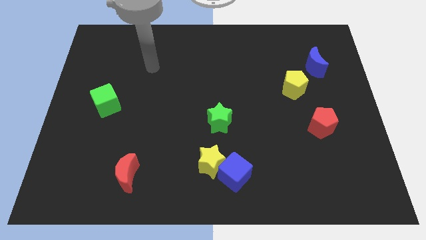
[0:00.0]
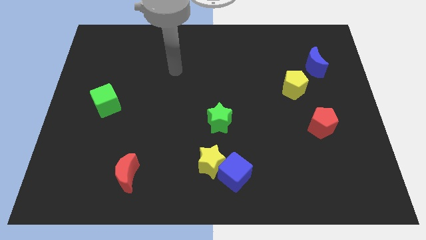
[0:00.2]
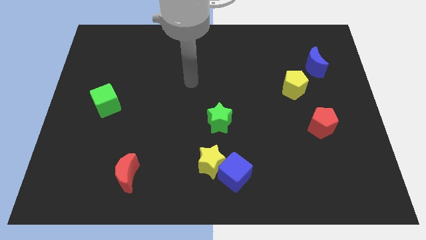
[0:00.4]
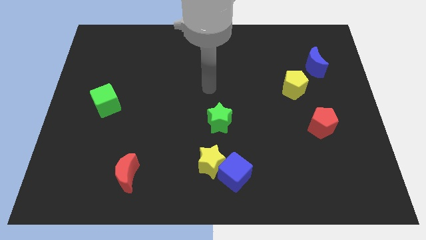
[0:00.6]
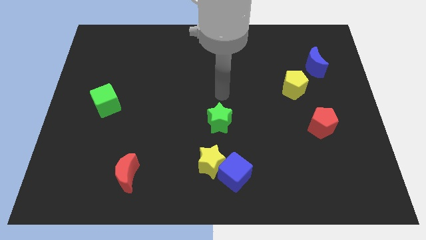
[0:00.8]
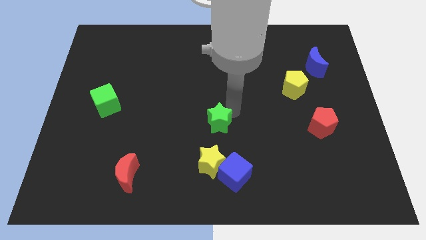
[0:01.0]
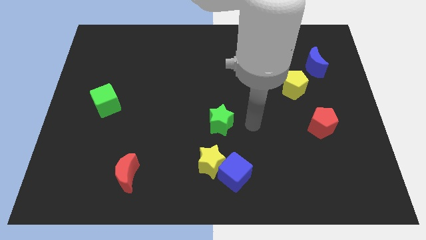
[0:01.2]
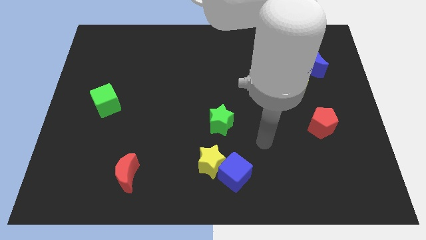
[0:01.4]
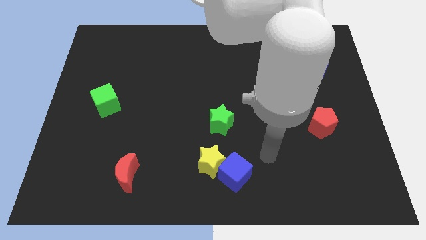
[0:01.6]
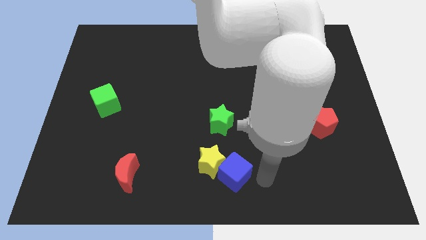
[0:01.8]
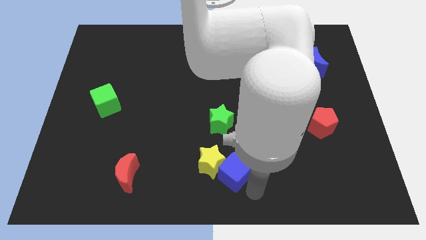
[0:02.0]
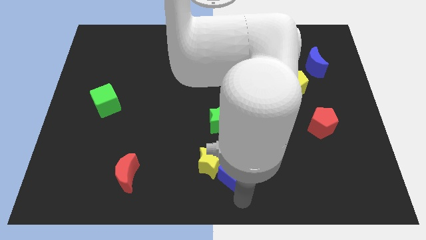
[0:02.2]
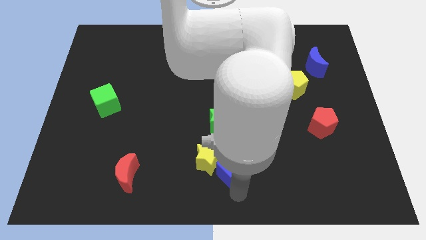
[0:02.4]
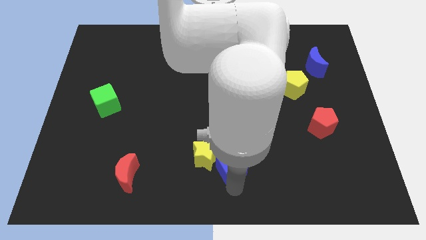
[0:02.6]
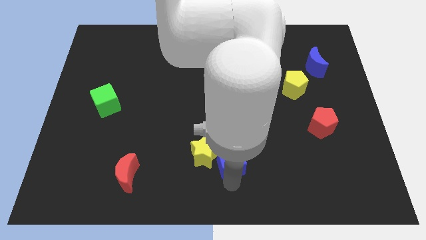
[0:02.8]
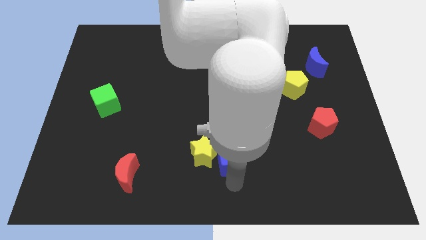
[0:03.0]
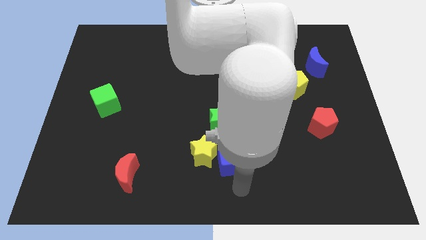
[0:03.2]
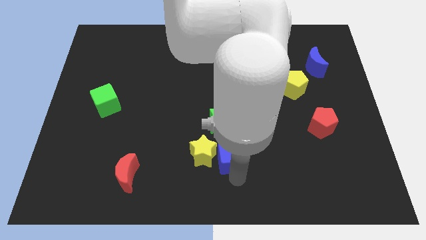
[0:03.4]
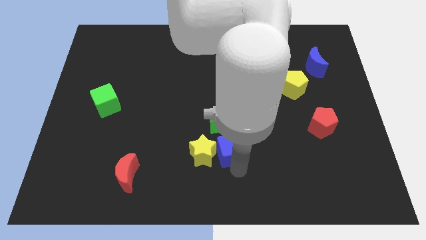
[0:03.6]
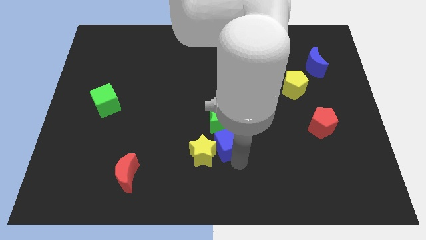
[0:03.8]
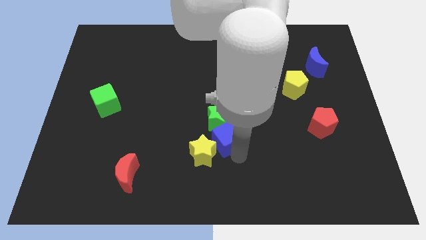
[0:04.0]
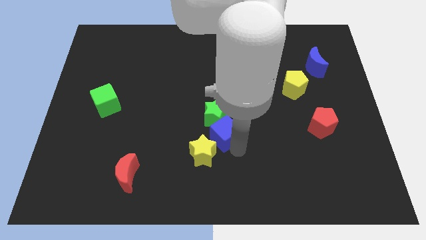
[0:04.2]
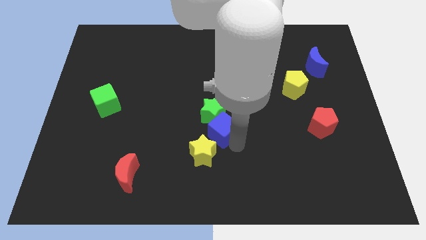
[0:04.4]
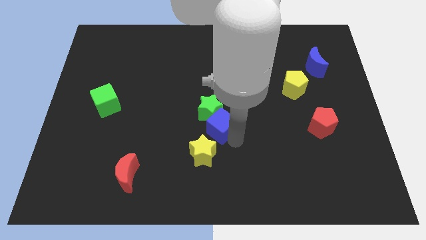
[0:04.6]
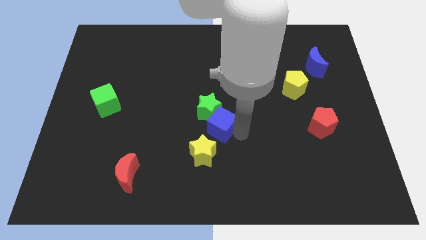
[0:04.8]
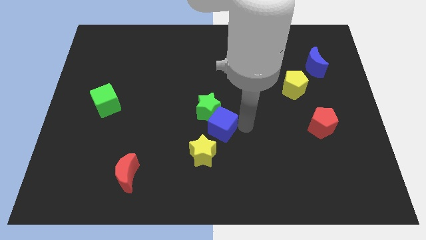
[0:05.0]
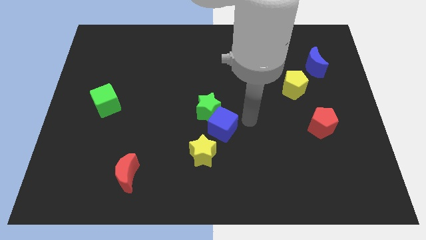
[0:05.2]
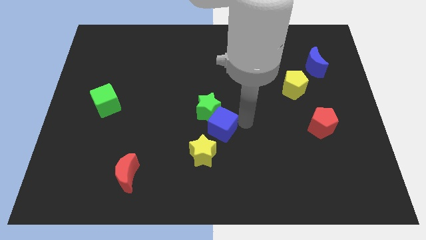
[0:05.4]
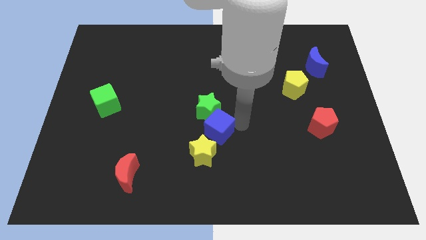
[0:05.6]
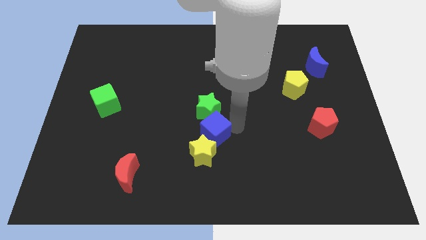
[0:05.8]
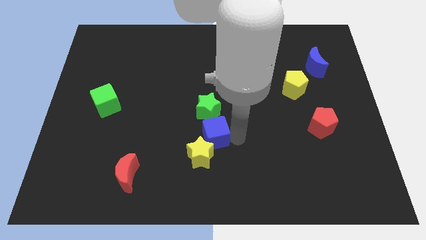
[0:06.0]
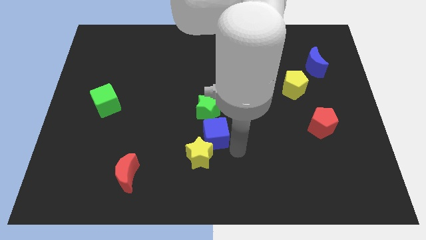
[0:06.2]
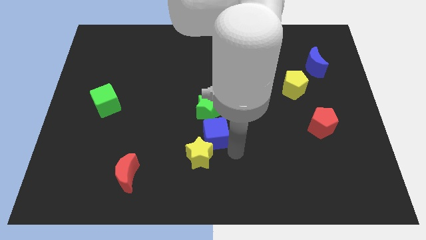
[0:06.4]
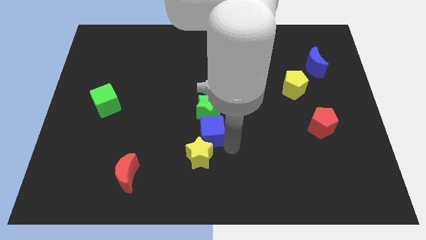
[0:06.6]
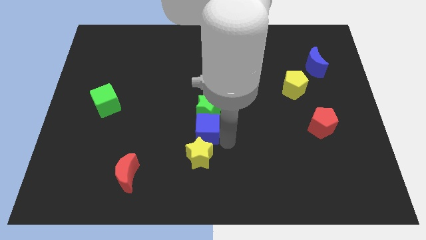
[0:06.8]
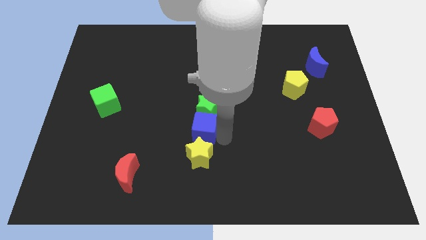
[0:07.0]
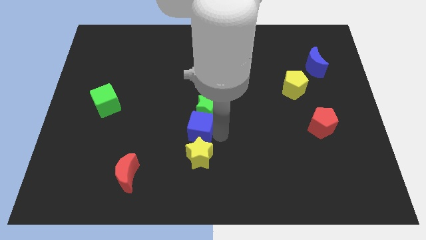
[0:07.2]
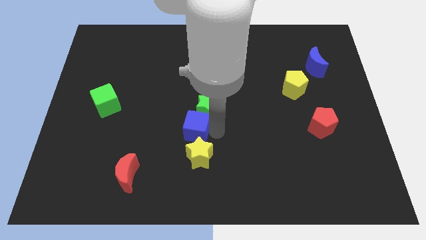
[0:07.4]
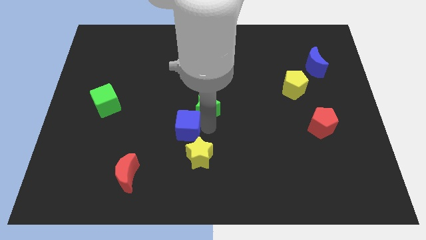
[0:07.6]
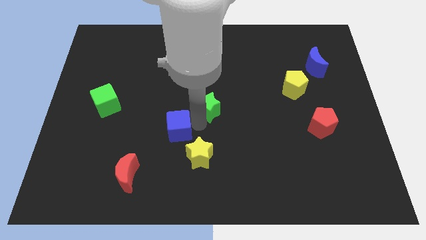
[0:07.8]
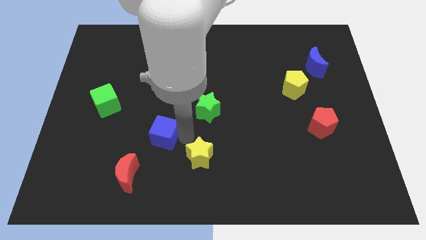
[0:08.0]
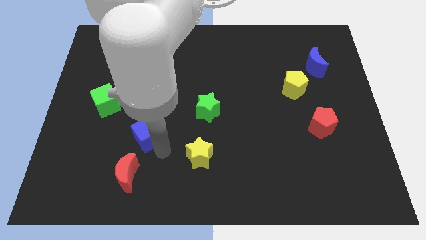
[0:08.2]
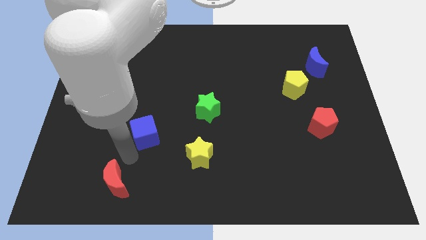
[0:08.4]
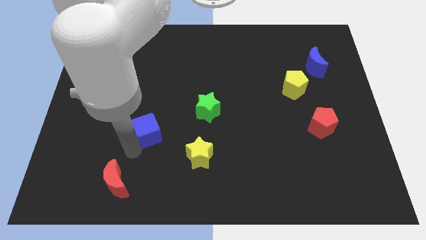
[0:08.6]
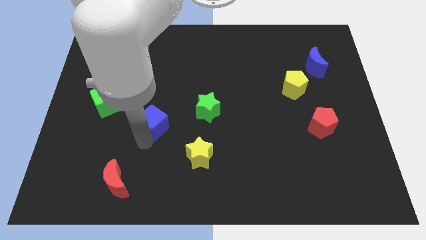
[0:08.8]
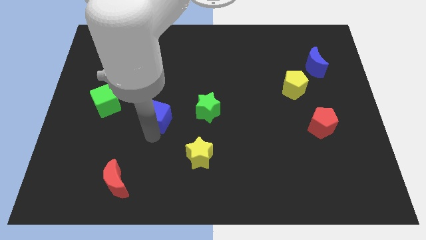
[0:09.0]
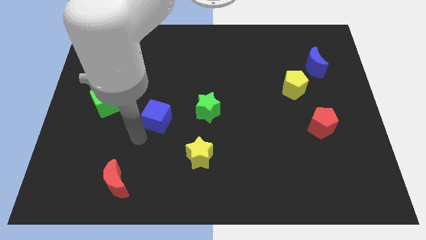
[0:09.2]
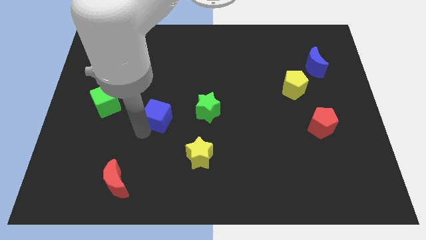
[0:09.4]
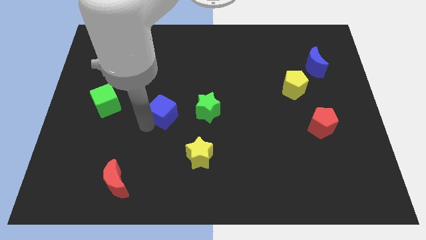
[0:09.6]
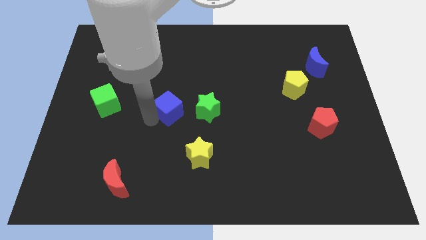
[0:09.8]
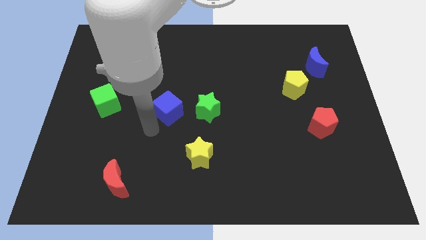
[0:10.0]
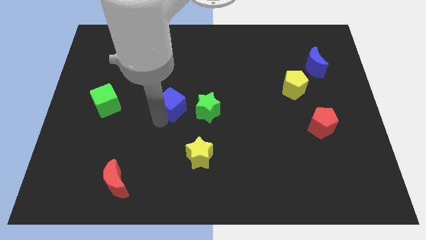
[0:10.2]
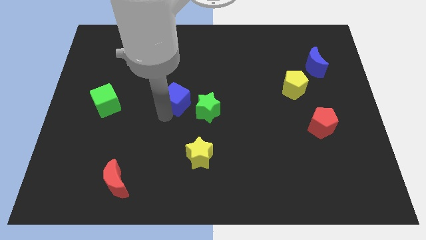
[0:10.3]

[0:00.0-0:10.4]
slide the blue cube to the top left side of the green star

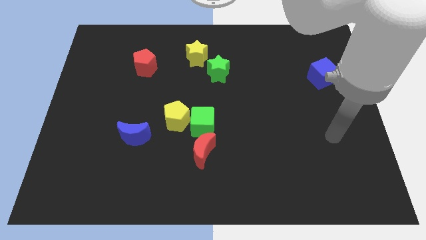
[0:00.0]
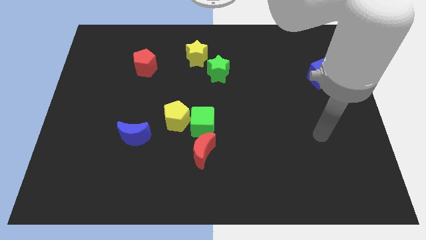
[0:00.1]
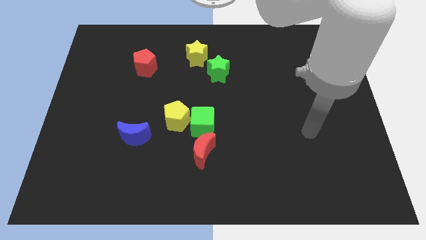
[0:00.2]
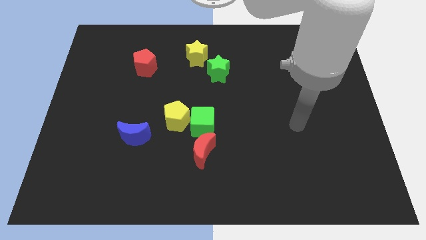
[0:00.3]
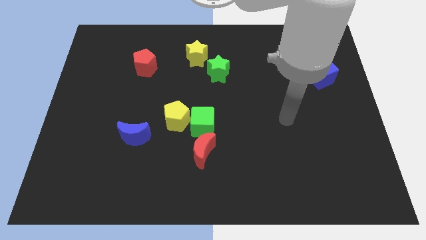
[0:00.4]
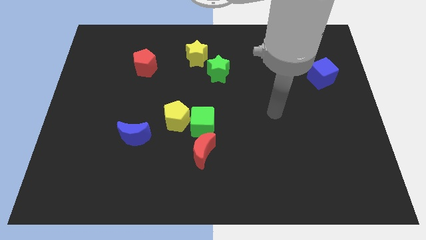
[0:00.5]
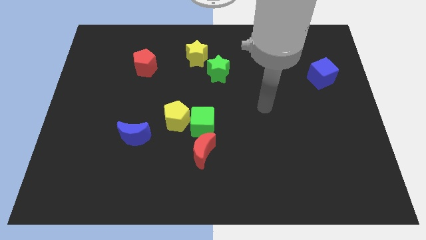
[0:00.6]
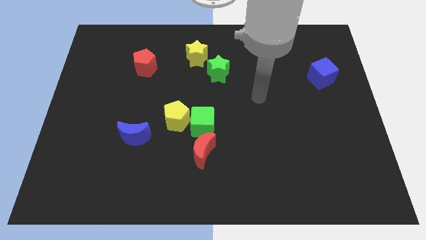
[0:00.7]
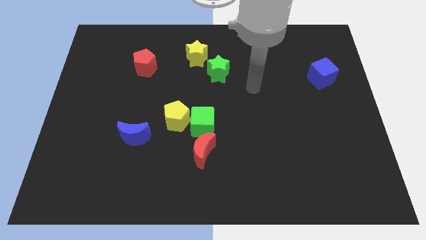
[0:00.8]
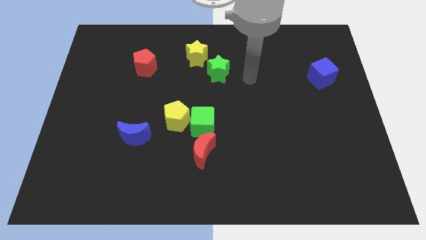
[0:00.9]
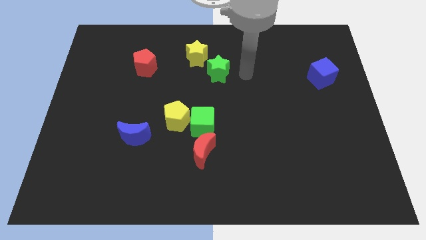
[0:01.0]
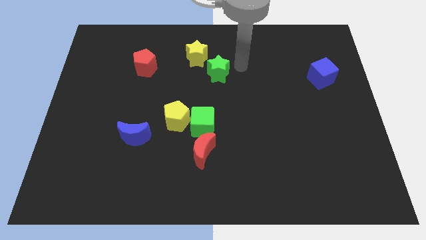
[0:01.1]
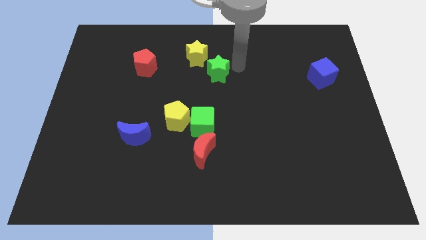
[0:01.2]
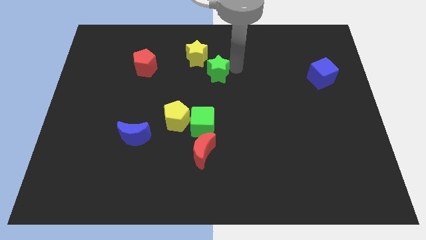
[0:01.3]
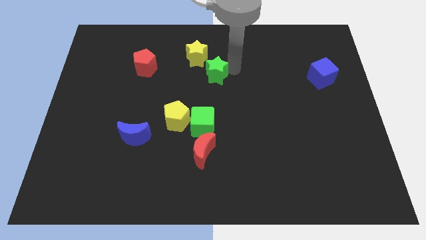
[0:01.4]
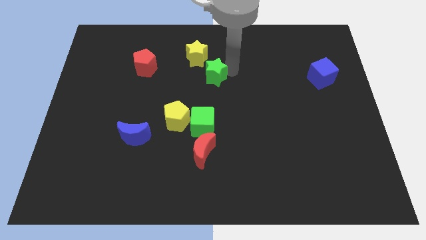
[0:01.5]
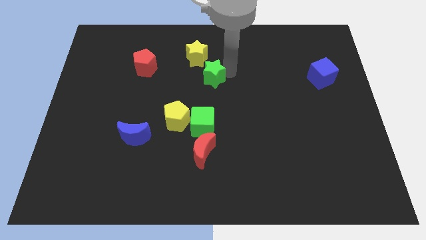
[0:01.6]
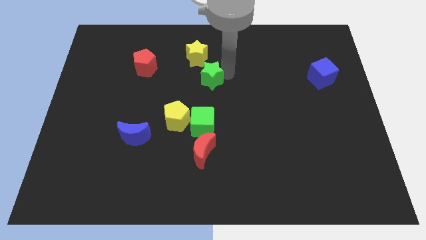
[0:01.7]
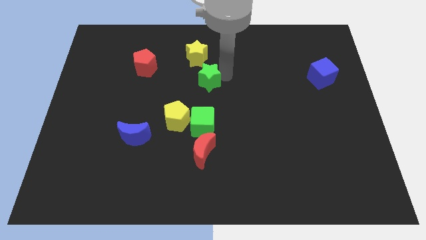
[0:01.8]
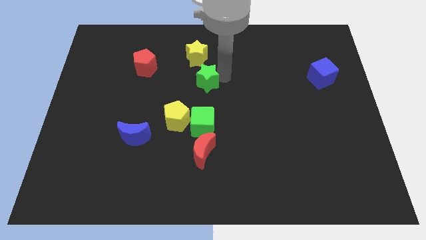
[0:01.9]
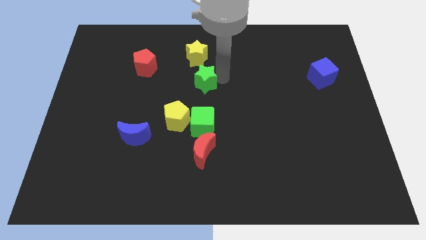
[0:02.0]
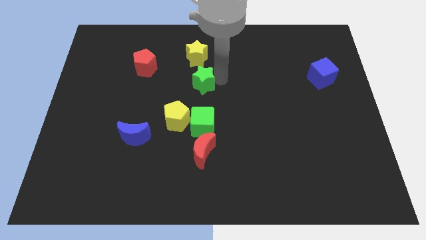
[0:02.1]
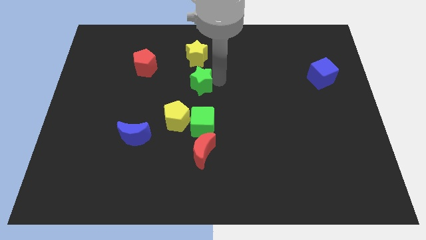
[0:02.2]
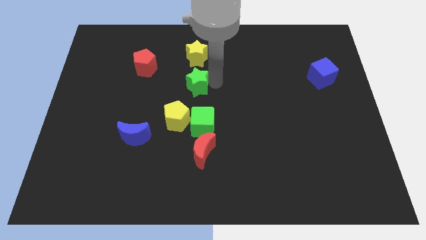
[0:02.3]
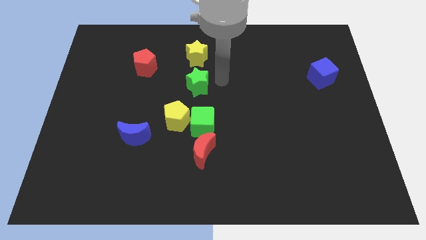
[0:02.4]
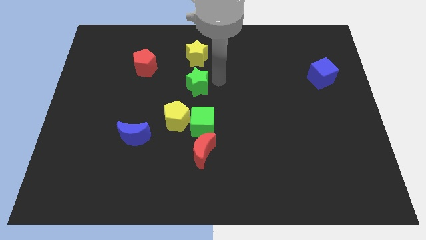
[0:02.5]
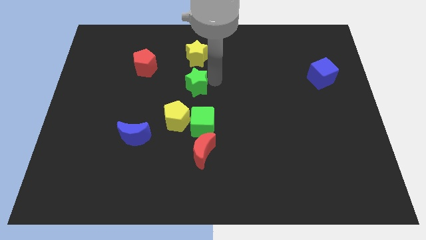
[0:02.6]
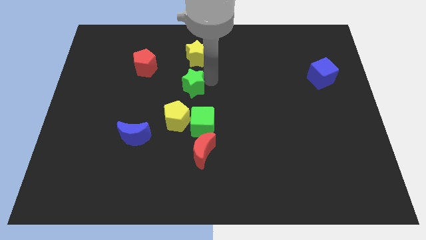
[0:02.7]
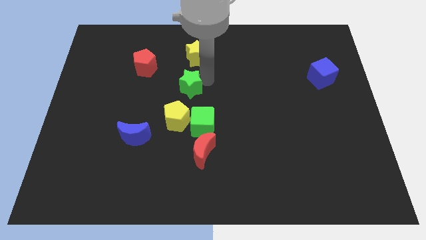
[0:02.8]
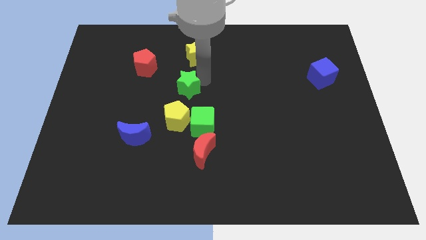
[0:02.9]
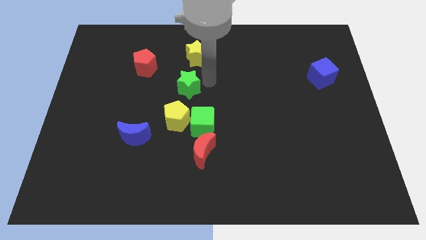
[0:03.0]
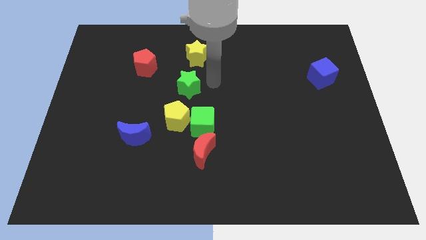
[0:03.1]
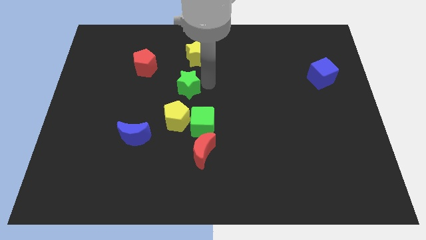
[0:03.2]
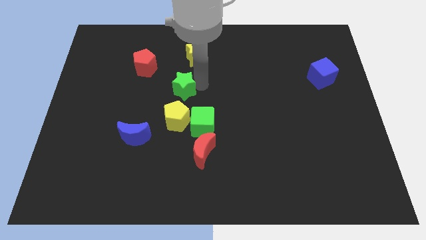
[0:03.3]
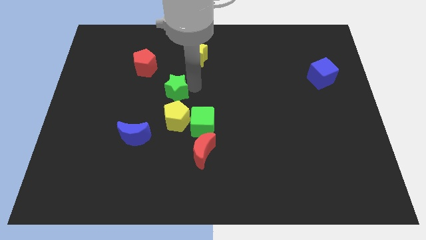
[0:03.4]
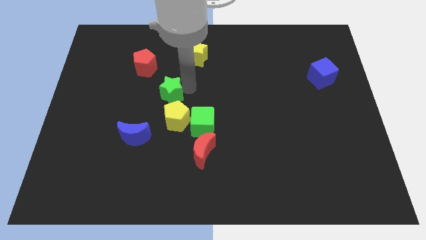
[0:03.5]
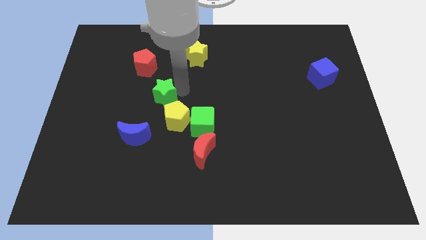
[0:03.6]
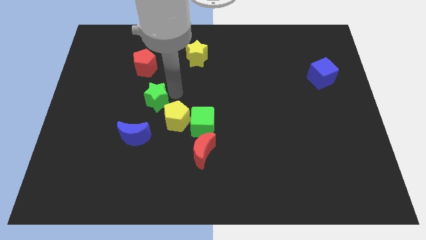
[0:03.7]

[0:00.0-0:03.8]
move the green star to the top of the blue moon
